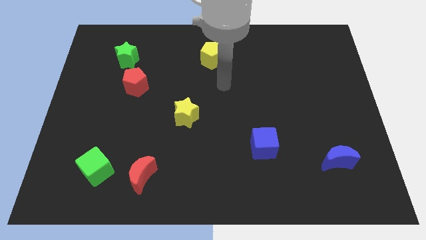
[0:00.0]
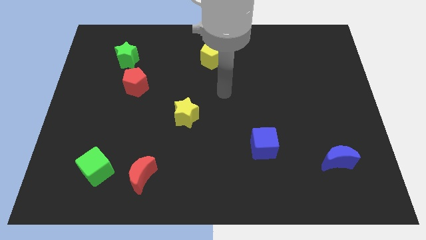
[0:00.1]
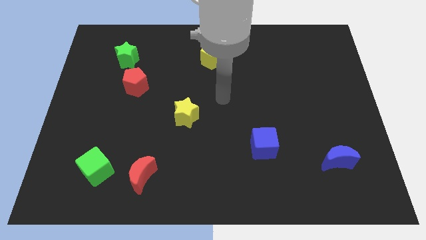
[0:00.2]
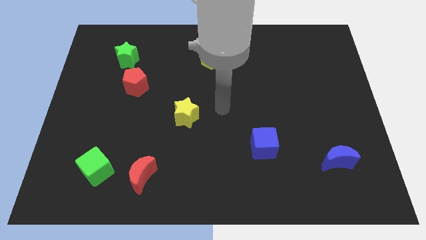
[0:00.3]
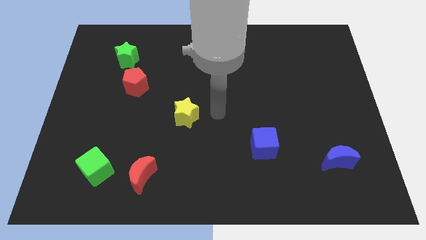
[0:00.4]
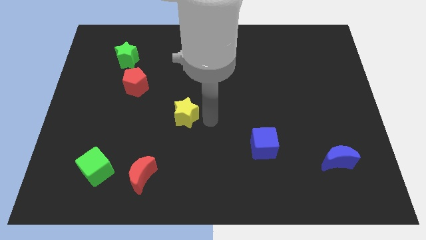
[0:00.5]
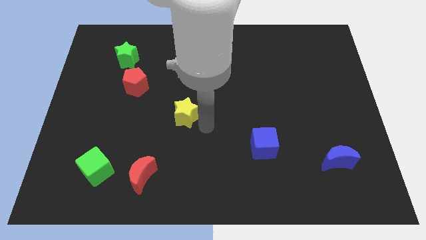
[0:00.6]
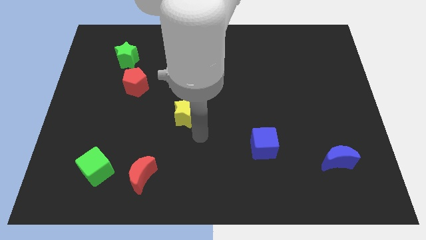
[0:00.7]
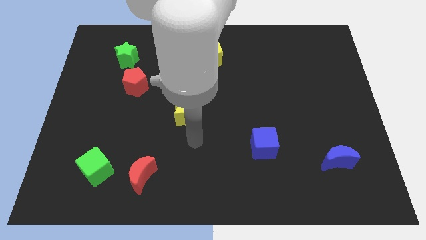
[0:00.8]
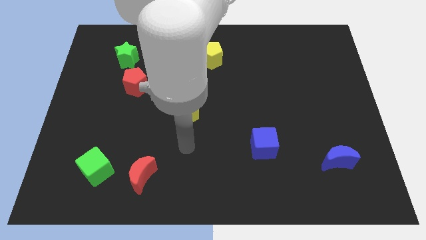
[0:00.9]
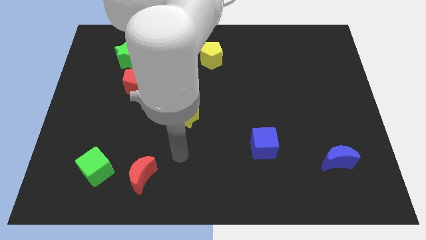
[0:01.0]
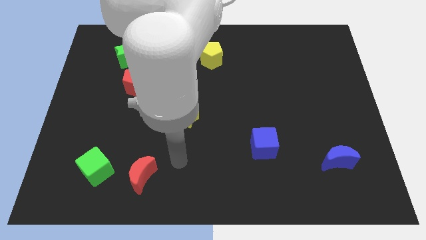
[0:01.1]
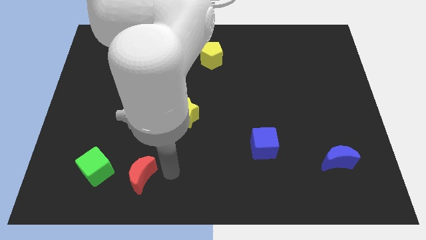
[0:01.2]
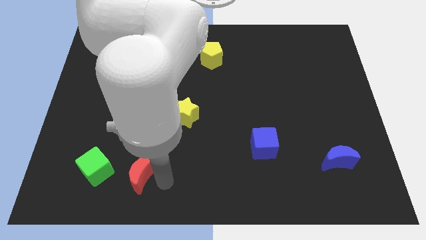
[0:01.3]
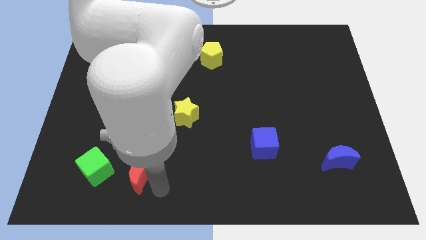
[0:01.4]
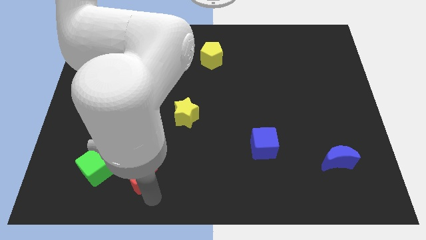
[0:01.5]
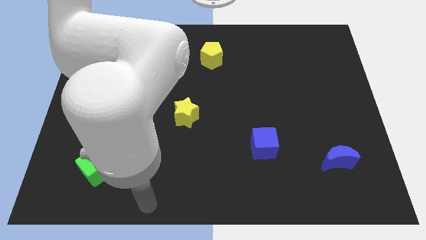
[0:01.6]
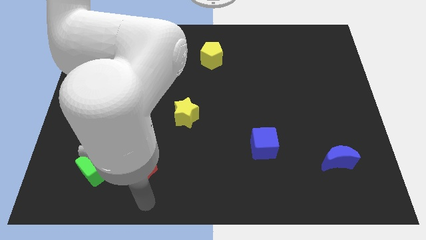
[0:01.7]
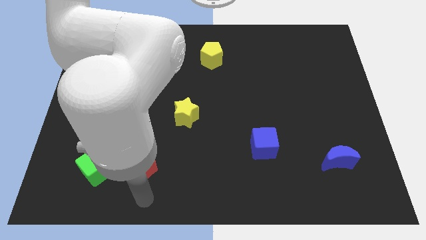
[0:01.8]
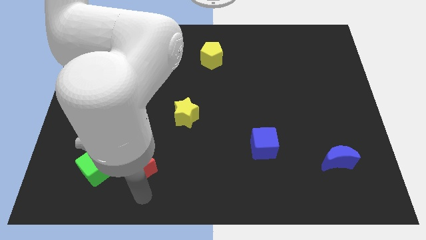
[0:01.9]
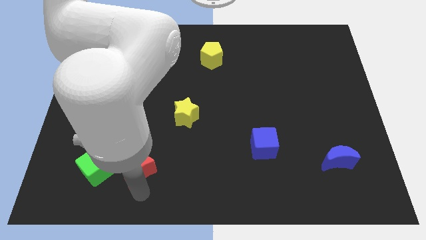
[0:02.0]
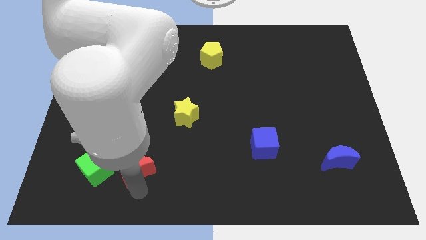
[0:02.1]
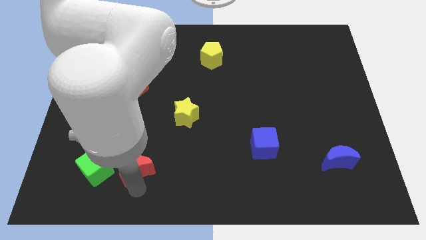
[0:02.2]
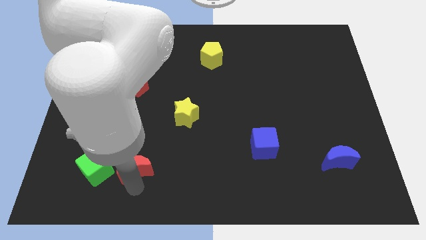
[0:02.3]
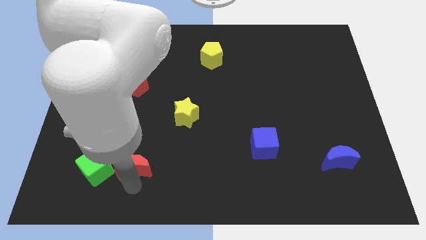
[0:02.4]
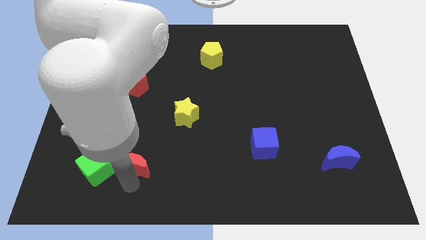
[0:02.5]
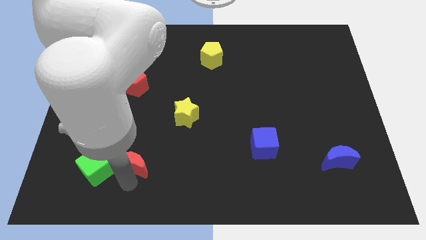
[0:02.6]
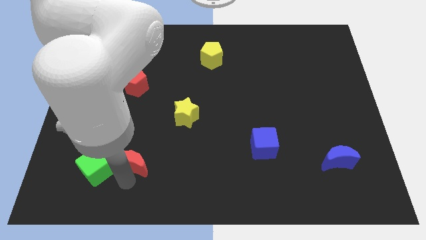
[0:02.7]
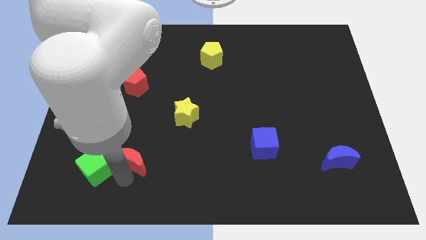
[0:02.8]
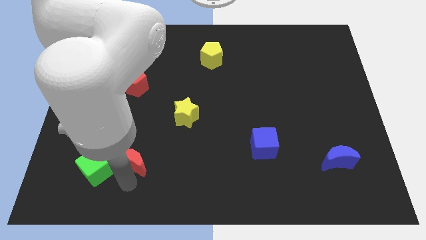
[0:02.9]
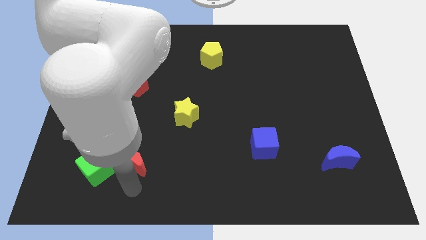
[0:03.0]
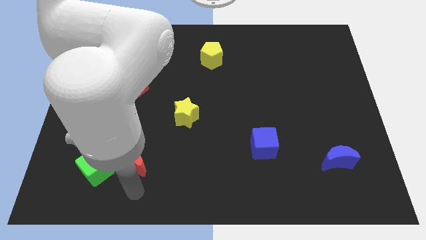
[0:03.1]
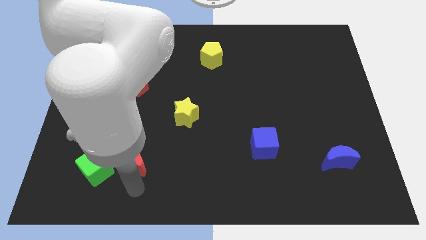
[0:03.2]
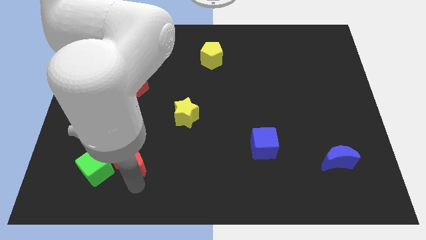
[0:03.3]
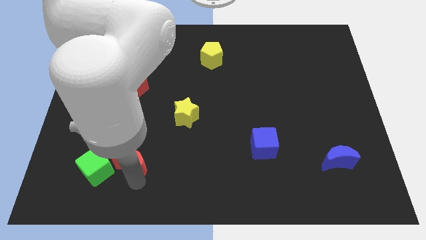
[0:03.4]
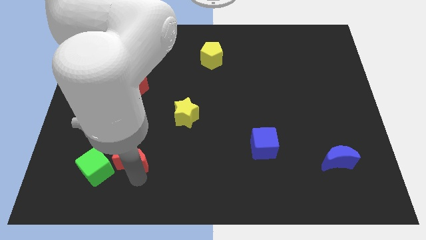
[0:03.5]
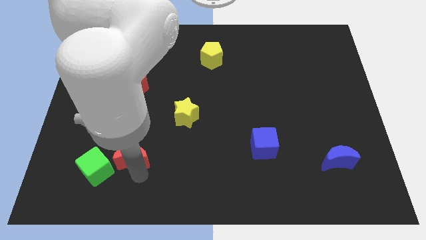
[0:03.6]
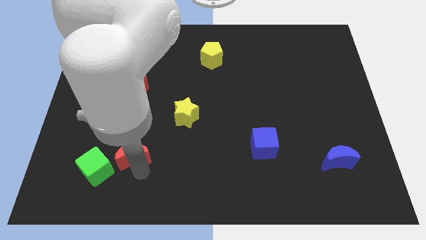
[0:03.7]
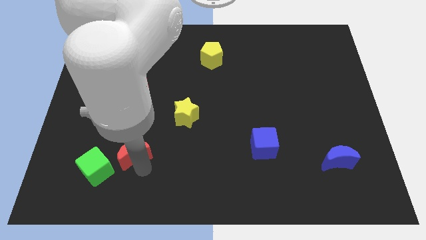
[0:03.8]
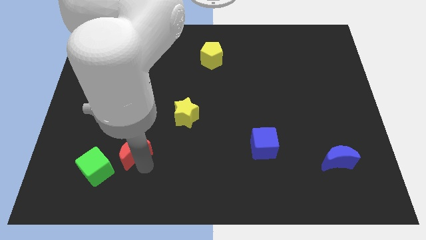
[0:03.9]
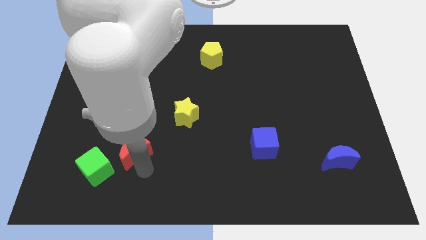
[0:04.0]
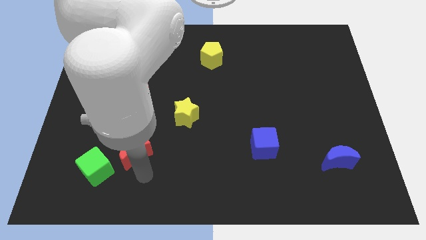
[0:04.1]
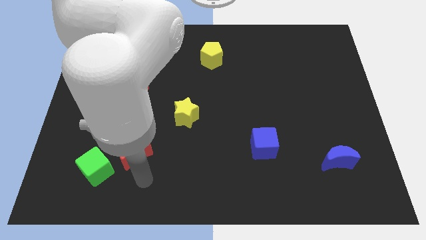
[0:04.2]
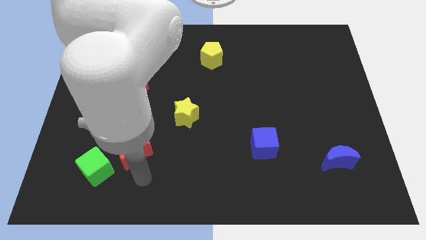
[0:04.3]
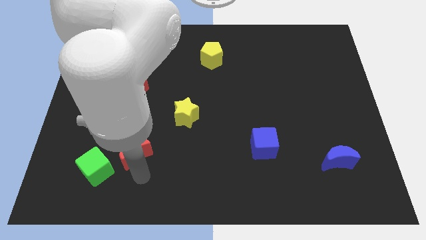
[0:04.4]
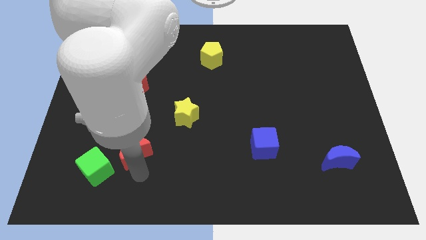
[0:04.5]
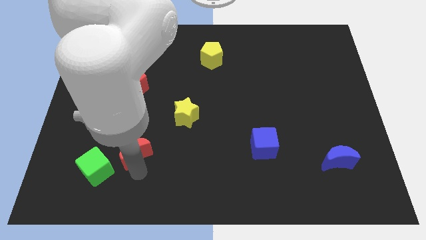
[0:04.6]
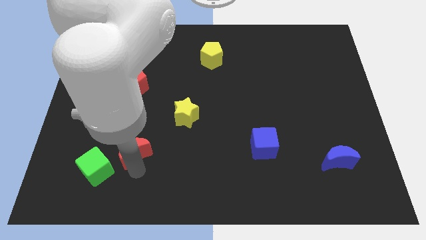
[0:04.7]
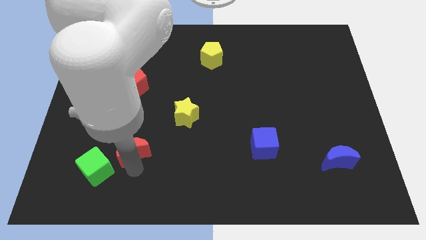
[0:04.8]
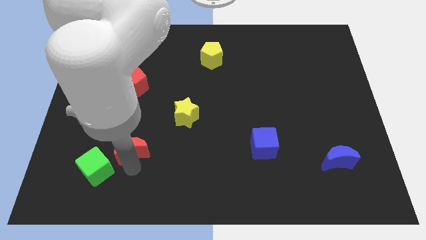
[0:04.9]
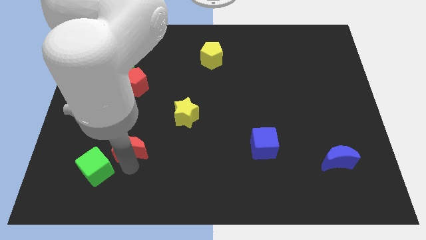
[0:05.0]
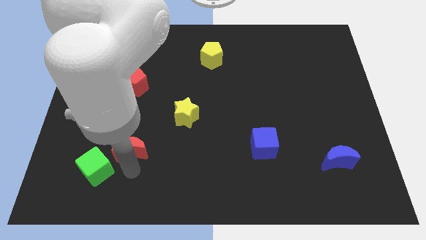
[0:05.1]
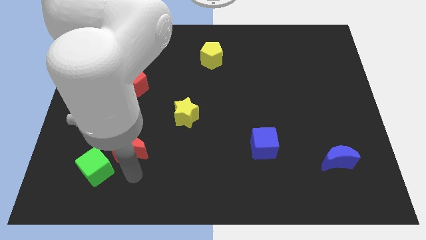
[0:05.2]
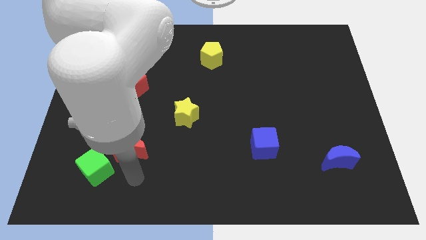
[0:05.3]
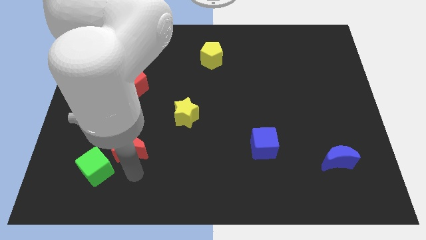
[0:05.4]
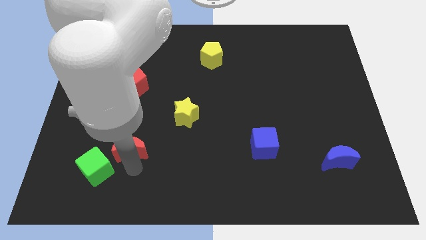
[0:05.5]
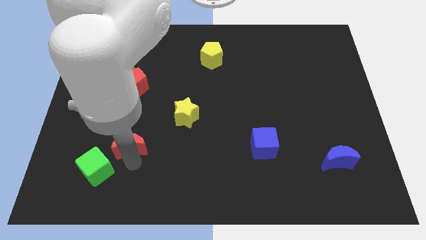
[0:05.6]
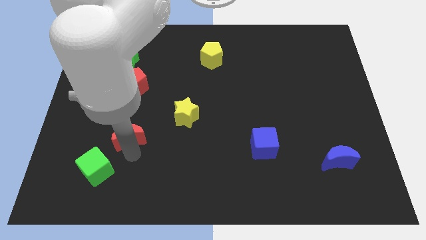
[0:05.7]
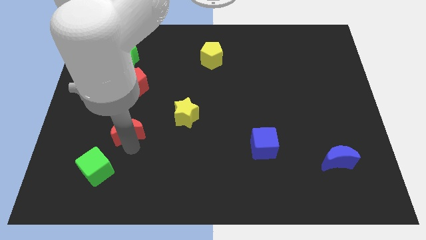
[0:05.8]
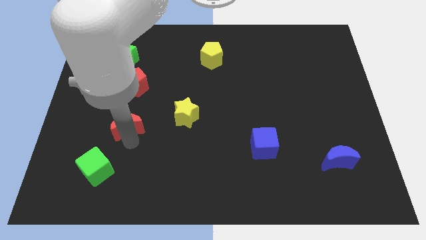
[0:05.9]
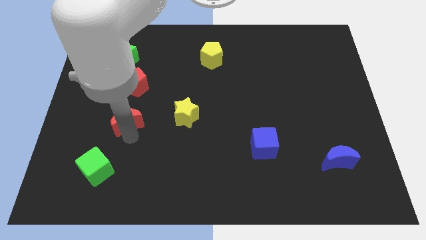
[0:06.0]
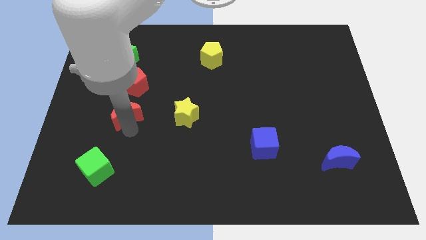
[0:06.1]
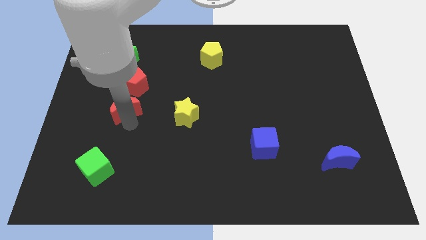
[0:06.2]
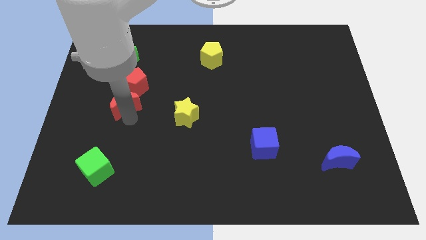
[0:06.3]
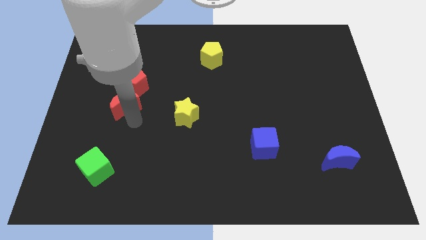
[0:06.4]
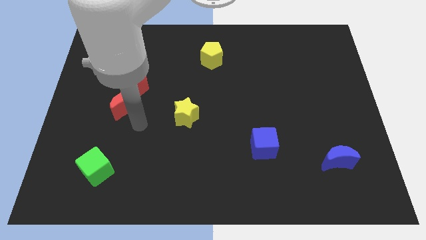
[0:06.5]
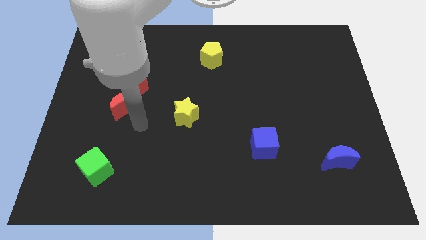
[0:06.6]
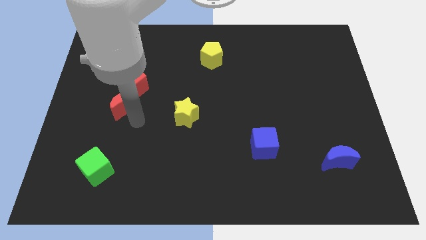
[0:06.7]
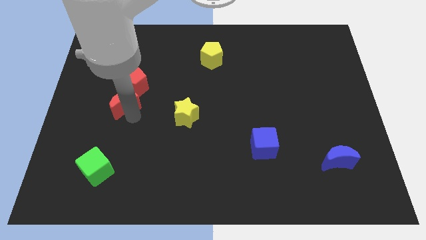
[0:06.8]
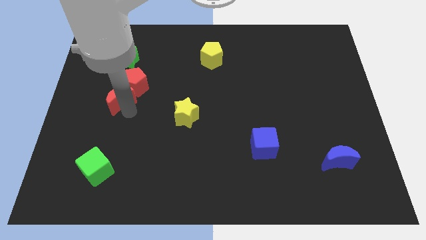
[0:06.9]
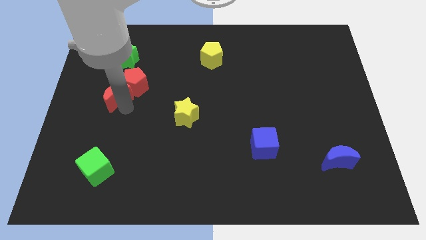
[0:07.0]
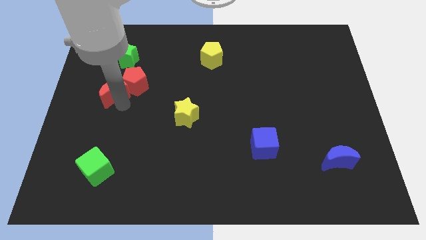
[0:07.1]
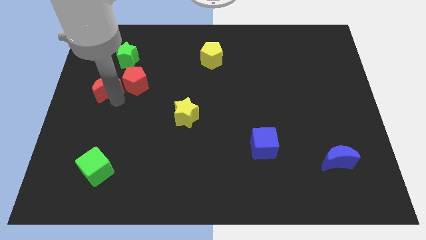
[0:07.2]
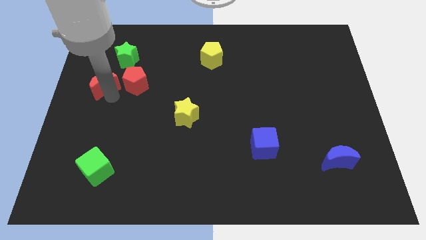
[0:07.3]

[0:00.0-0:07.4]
put the red moon to the bottom left side of the green star
